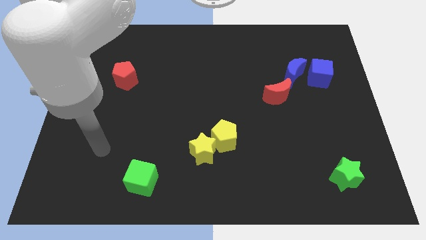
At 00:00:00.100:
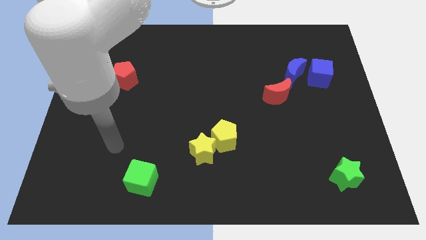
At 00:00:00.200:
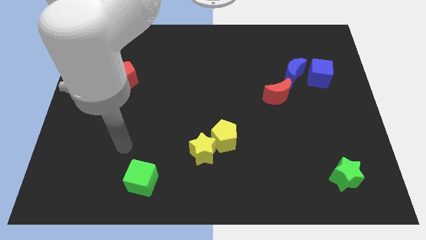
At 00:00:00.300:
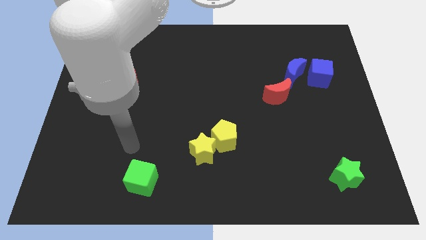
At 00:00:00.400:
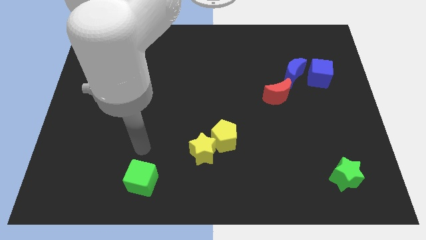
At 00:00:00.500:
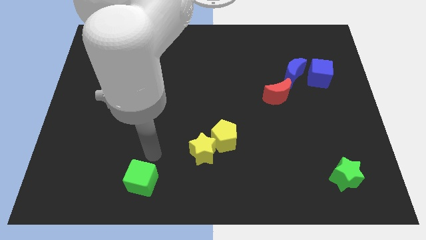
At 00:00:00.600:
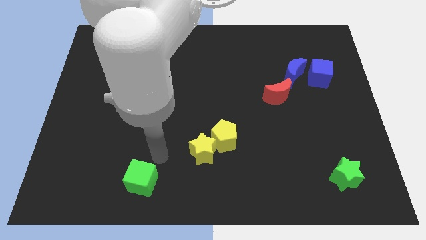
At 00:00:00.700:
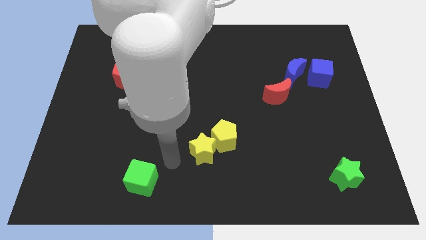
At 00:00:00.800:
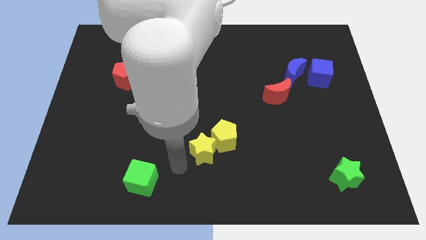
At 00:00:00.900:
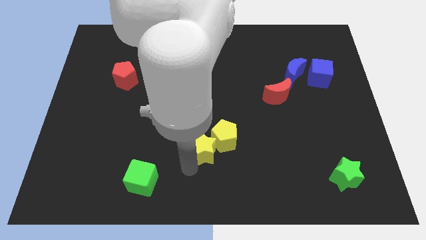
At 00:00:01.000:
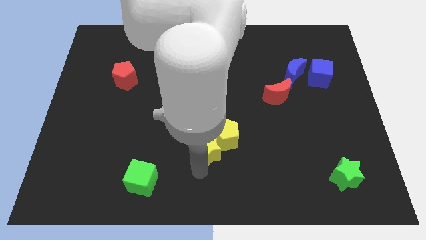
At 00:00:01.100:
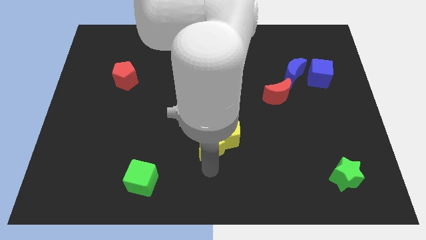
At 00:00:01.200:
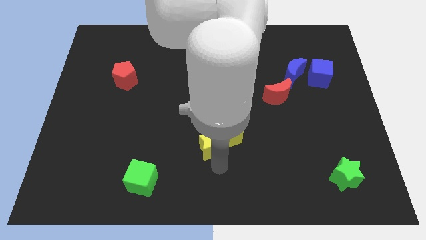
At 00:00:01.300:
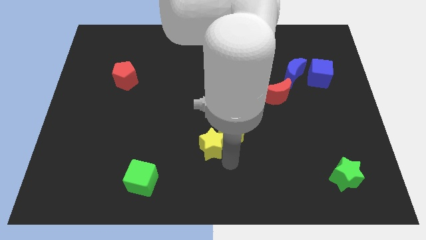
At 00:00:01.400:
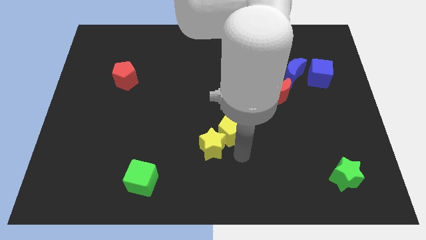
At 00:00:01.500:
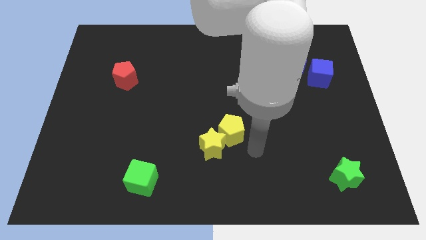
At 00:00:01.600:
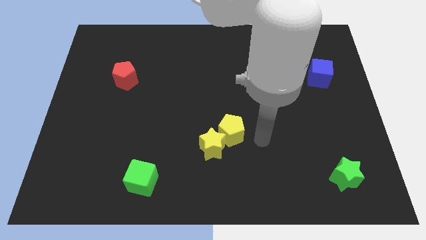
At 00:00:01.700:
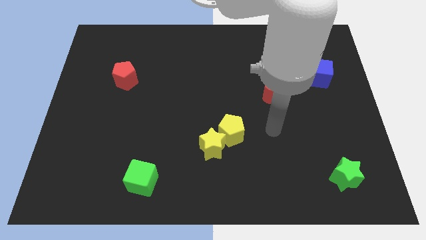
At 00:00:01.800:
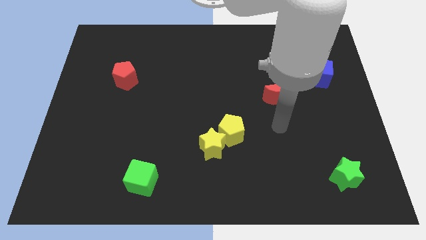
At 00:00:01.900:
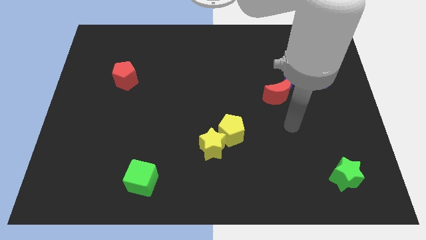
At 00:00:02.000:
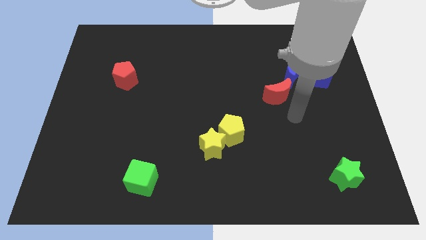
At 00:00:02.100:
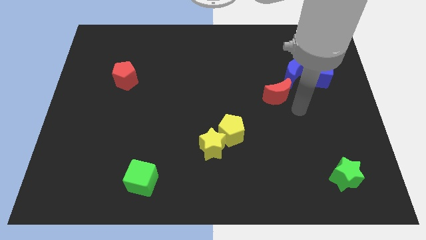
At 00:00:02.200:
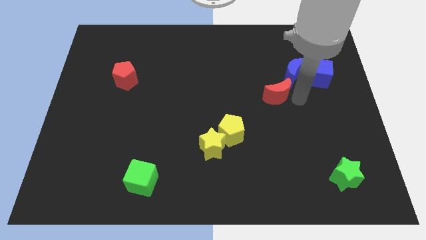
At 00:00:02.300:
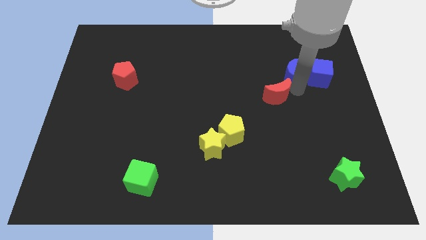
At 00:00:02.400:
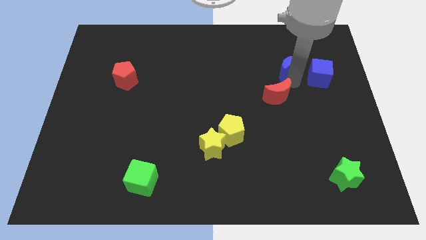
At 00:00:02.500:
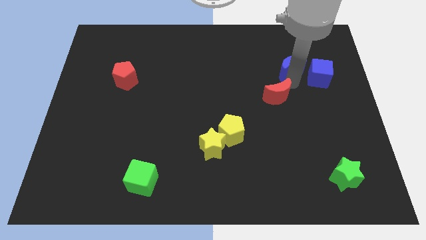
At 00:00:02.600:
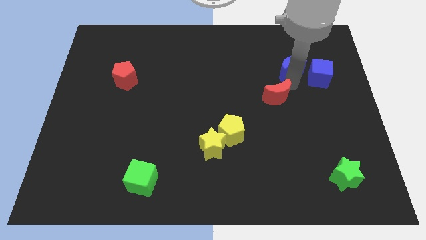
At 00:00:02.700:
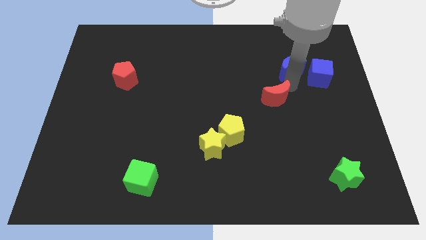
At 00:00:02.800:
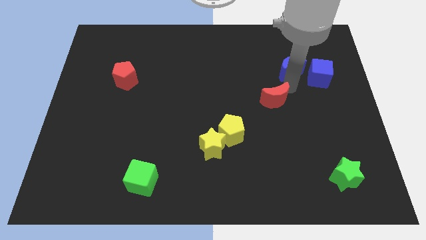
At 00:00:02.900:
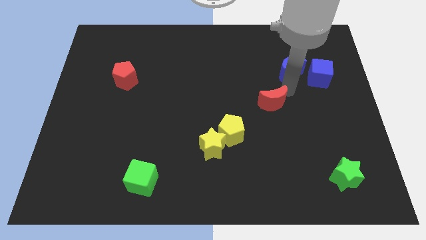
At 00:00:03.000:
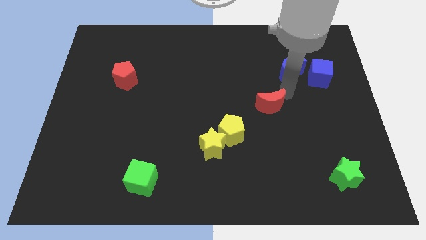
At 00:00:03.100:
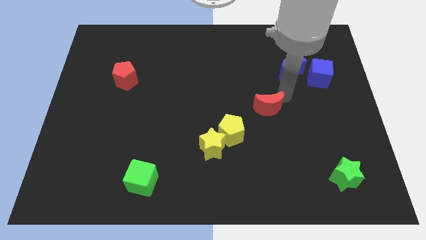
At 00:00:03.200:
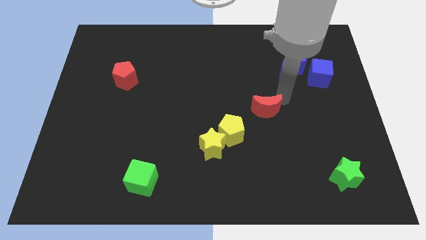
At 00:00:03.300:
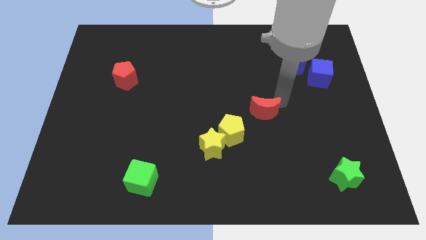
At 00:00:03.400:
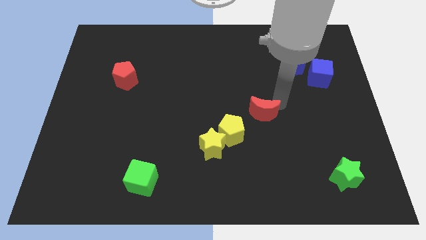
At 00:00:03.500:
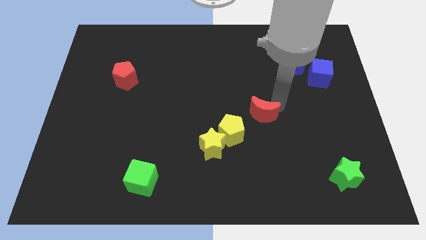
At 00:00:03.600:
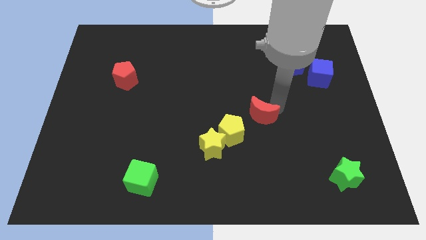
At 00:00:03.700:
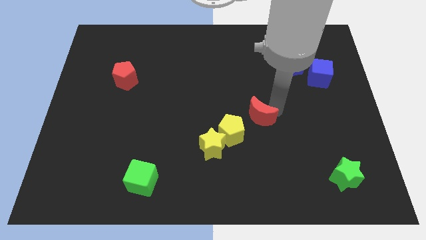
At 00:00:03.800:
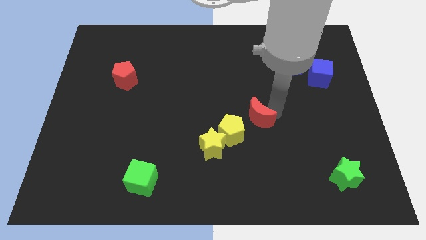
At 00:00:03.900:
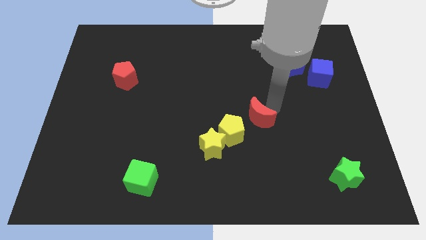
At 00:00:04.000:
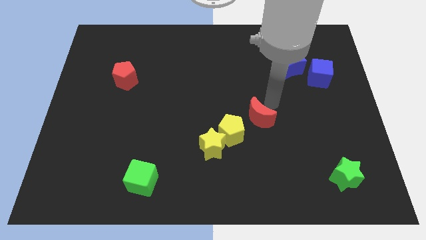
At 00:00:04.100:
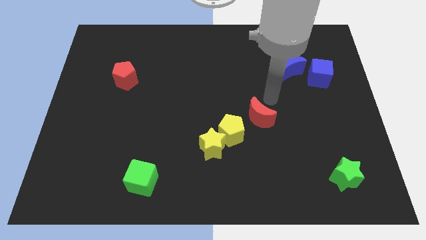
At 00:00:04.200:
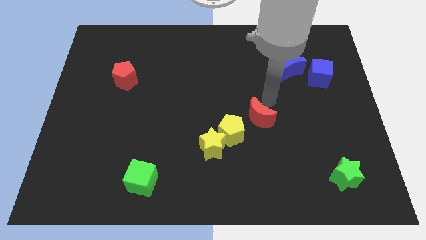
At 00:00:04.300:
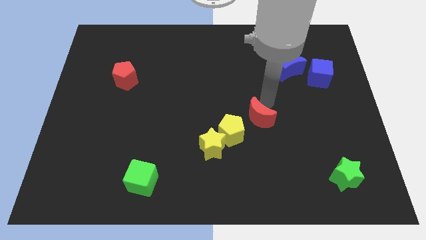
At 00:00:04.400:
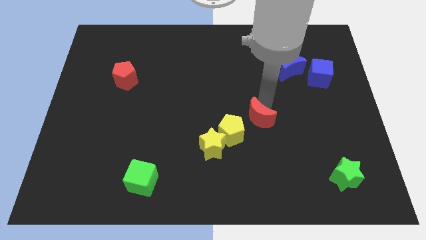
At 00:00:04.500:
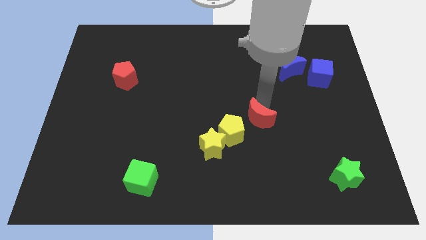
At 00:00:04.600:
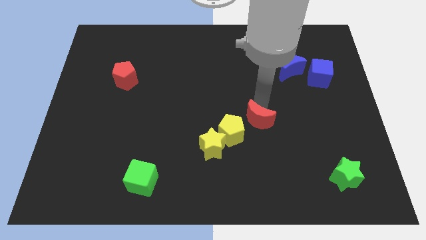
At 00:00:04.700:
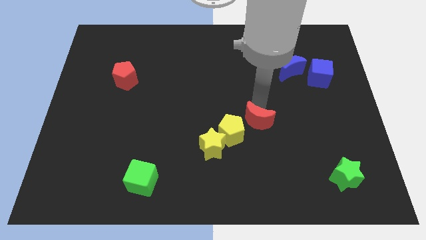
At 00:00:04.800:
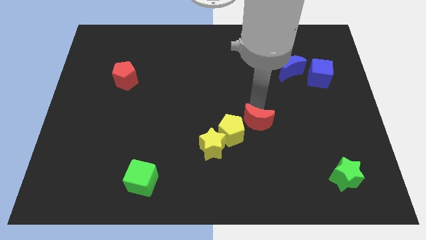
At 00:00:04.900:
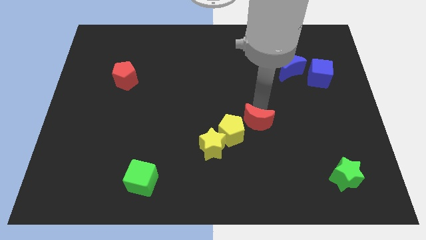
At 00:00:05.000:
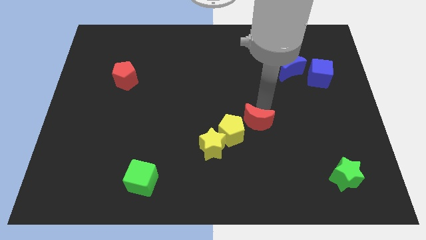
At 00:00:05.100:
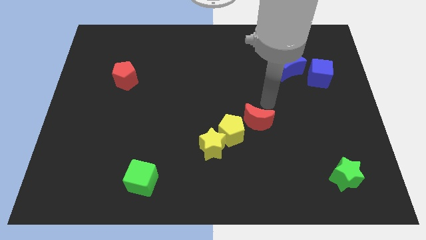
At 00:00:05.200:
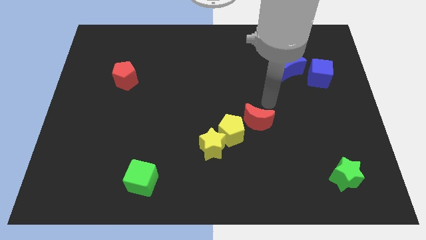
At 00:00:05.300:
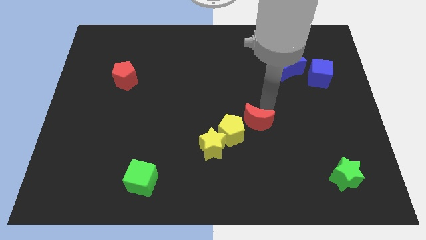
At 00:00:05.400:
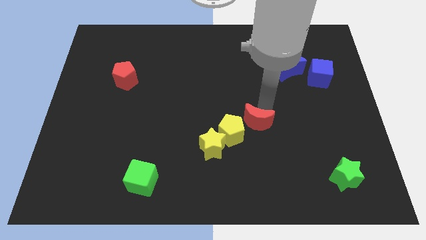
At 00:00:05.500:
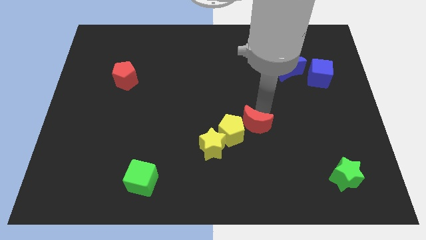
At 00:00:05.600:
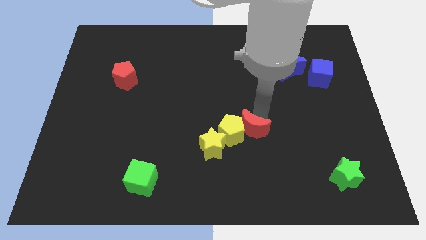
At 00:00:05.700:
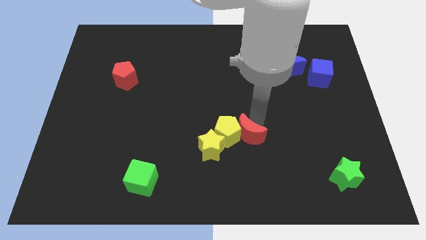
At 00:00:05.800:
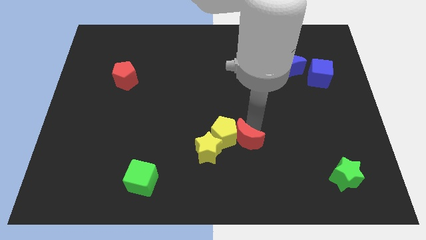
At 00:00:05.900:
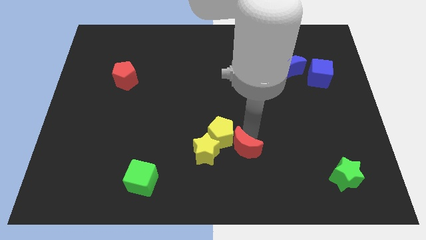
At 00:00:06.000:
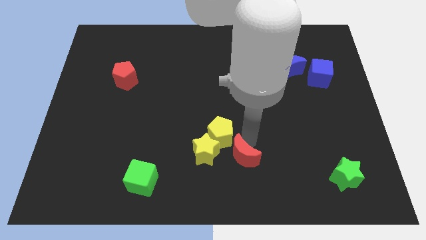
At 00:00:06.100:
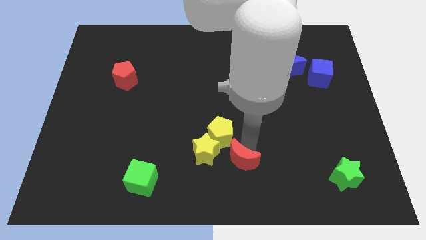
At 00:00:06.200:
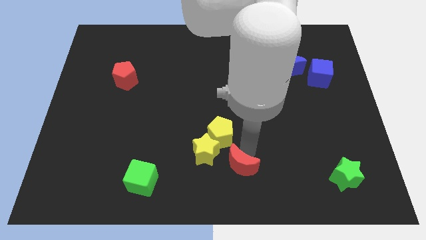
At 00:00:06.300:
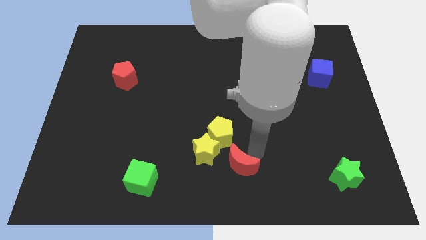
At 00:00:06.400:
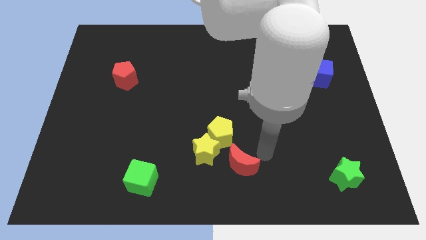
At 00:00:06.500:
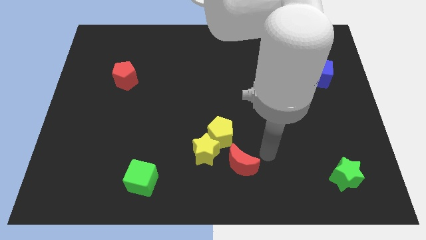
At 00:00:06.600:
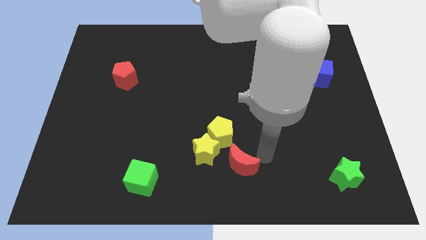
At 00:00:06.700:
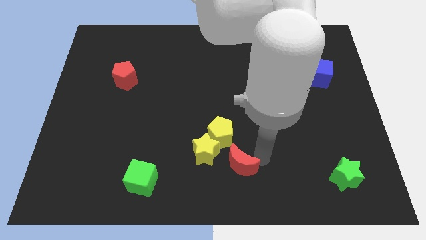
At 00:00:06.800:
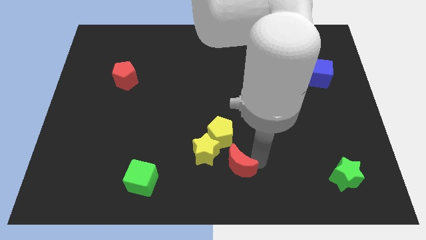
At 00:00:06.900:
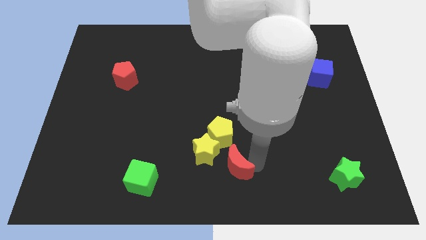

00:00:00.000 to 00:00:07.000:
move the red moon down and to the left

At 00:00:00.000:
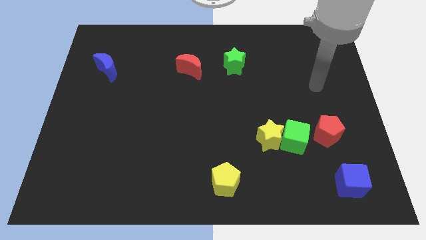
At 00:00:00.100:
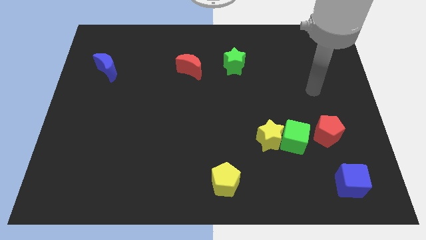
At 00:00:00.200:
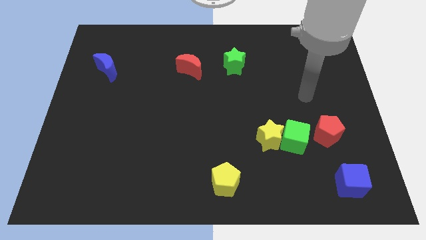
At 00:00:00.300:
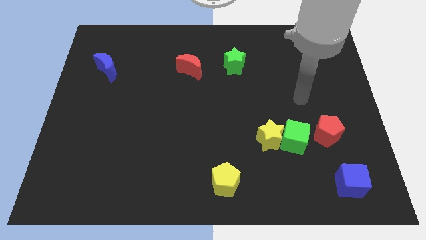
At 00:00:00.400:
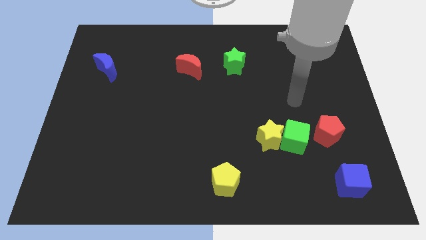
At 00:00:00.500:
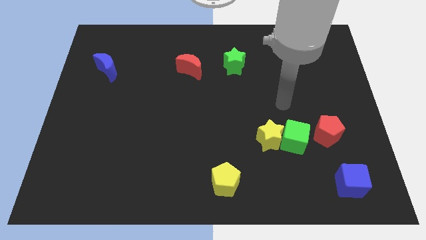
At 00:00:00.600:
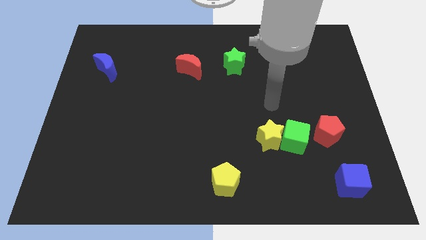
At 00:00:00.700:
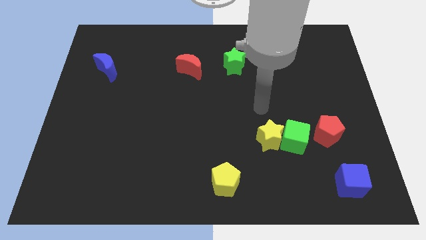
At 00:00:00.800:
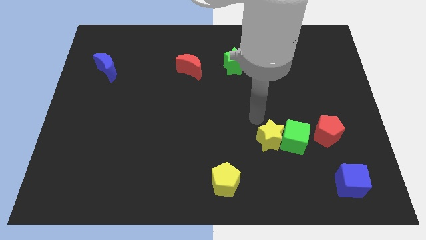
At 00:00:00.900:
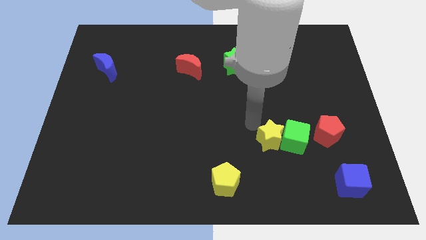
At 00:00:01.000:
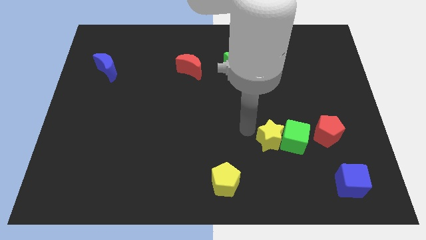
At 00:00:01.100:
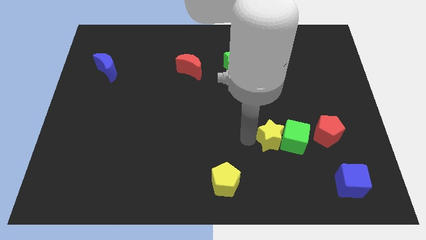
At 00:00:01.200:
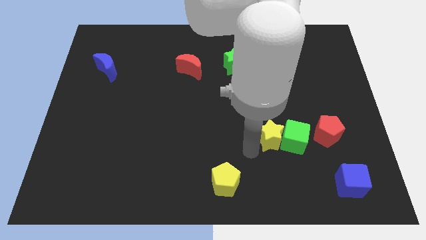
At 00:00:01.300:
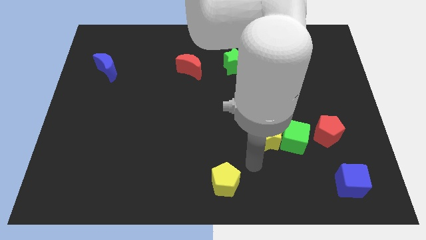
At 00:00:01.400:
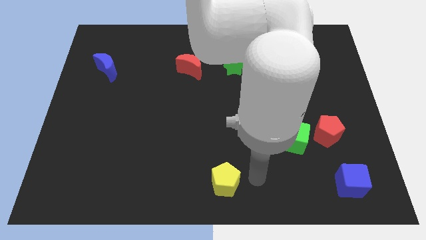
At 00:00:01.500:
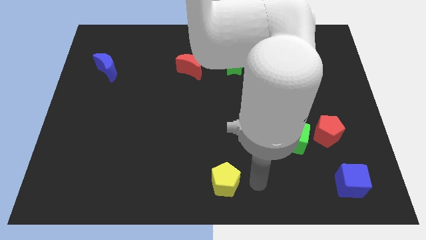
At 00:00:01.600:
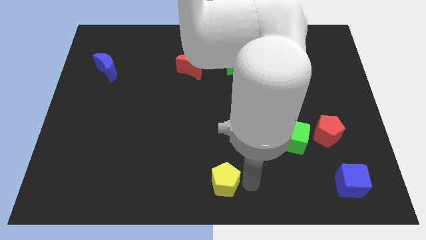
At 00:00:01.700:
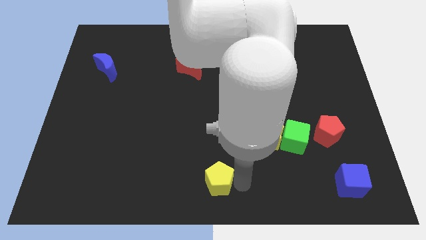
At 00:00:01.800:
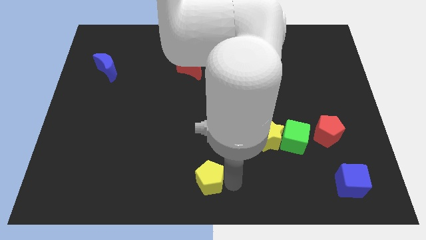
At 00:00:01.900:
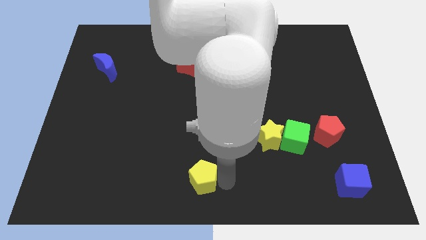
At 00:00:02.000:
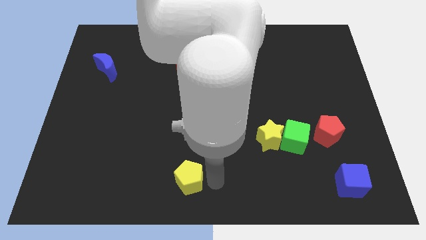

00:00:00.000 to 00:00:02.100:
slightly push the yellow pentagon left
